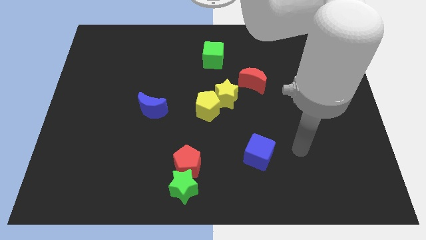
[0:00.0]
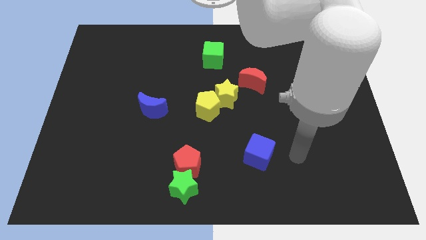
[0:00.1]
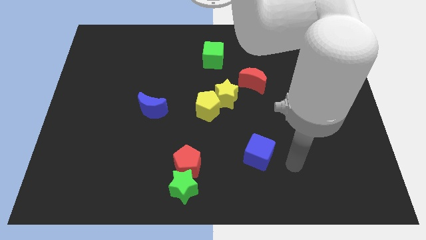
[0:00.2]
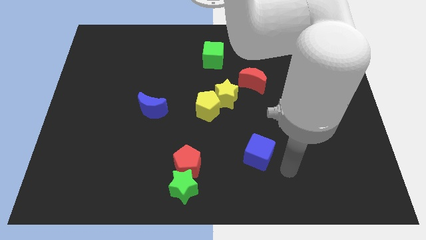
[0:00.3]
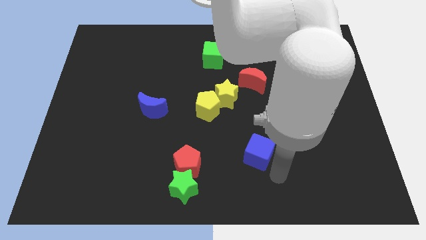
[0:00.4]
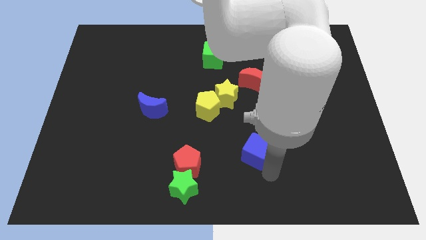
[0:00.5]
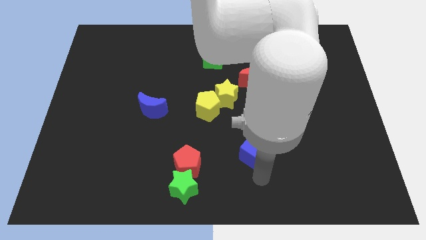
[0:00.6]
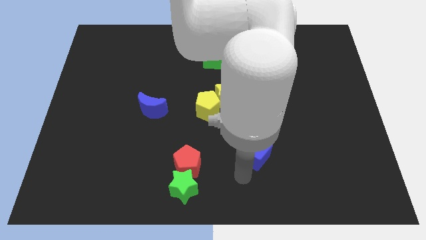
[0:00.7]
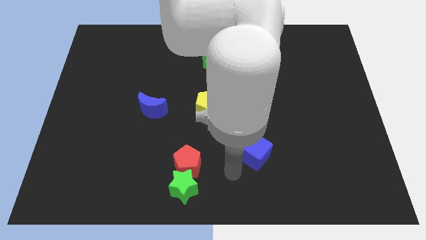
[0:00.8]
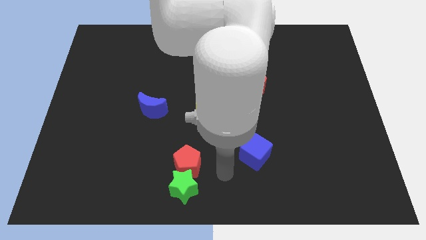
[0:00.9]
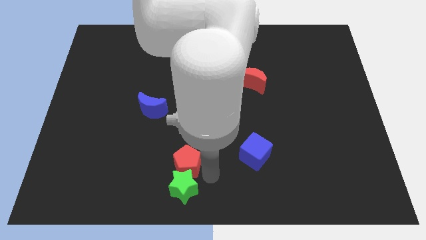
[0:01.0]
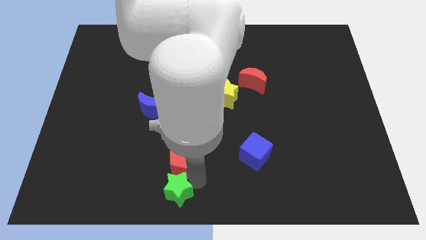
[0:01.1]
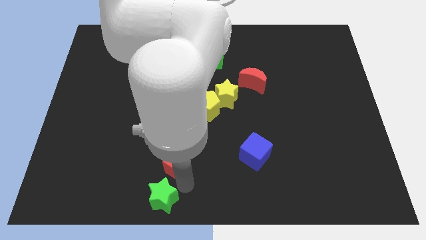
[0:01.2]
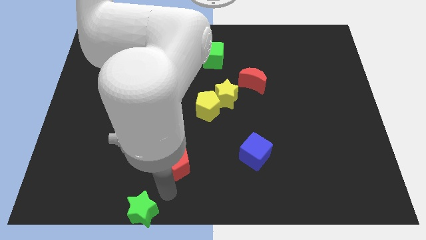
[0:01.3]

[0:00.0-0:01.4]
pull the red pentagon apart from the green star

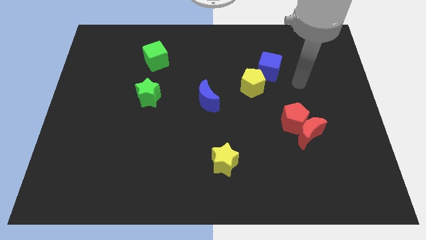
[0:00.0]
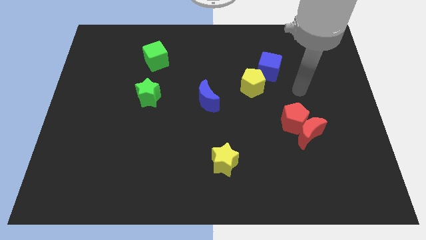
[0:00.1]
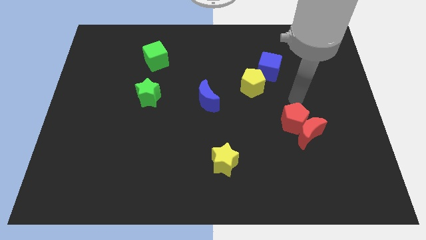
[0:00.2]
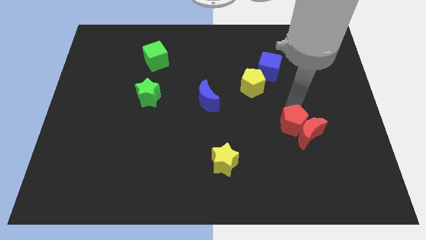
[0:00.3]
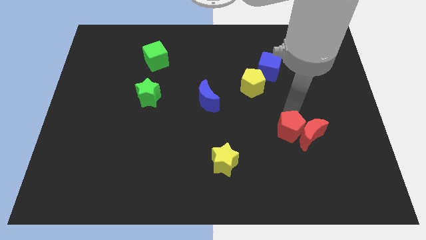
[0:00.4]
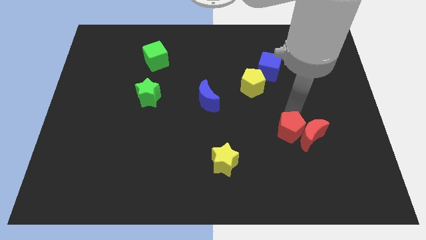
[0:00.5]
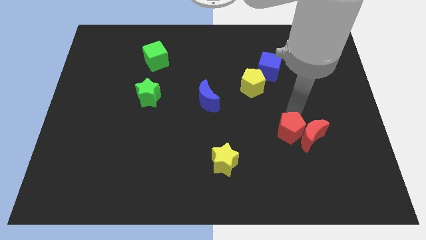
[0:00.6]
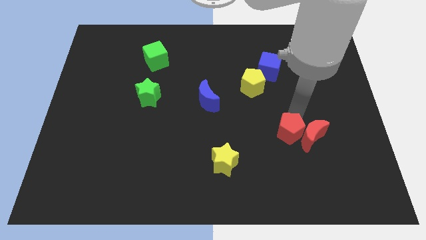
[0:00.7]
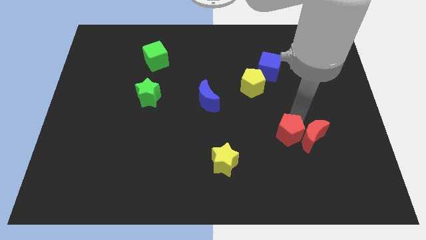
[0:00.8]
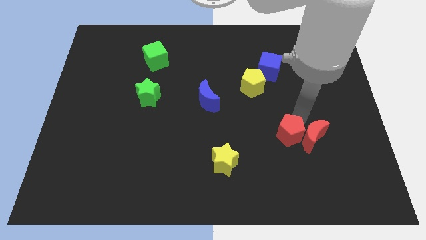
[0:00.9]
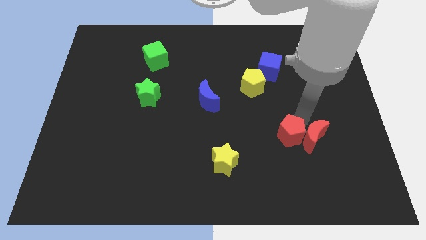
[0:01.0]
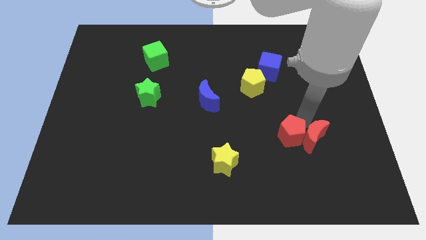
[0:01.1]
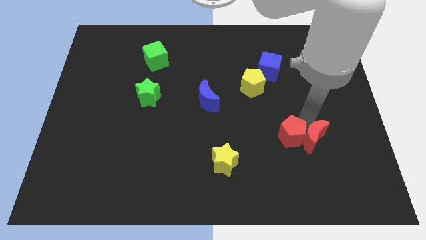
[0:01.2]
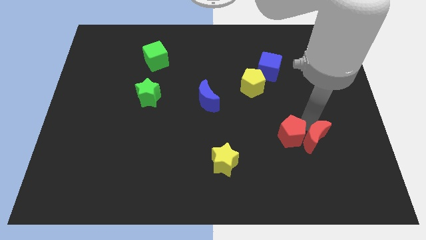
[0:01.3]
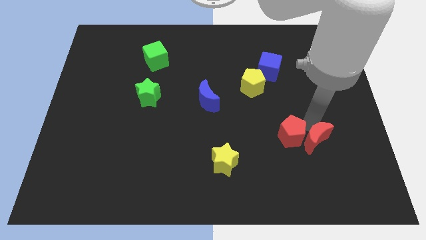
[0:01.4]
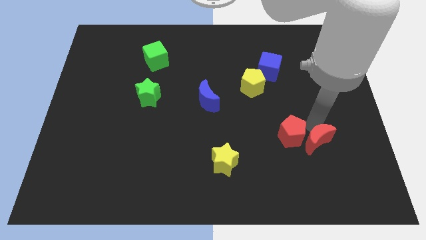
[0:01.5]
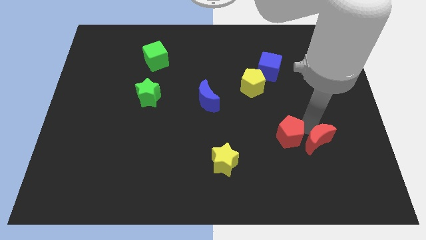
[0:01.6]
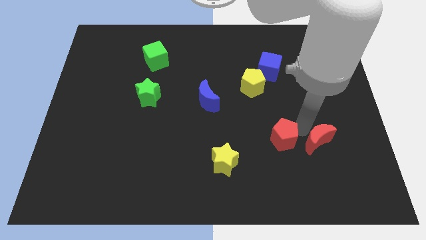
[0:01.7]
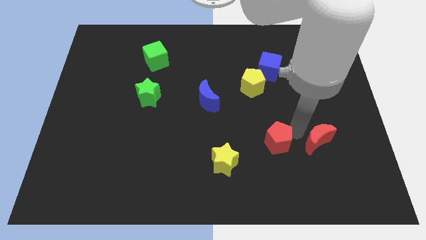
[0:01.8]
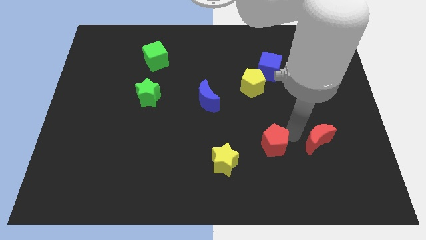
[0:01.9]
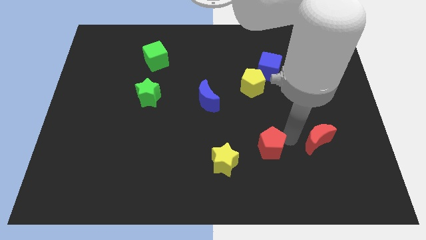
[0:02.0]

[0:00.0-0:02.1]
pull the red moon apart from the red pentagon

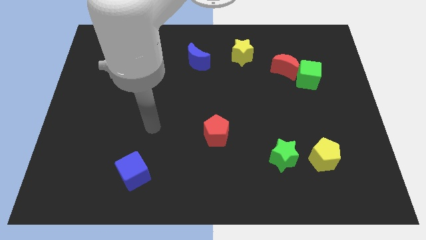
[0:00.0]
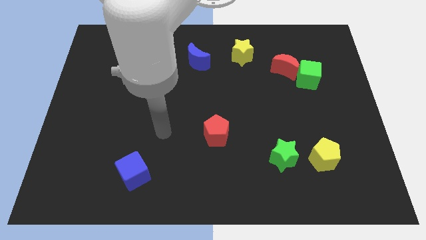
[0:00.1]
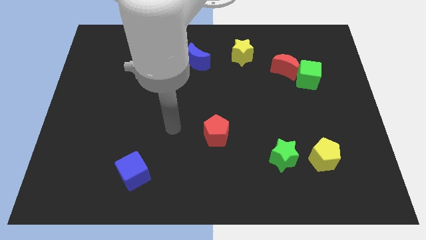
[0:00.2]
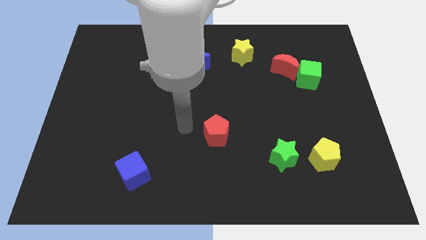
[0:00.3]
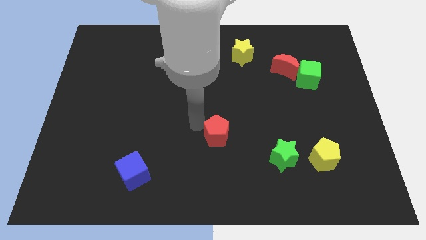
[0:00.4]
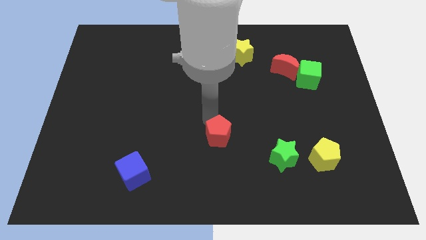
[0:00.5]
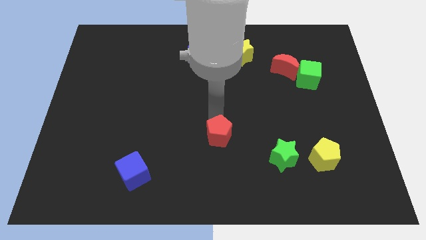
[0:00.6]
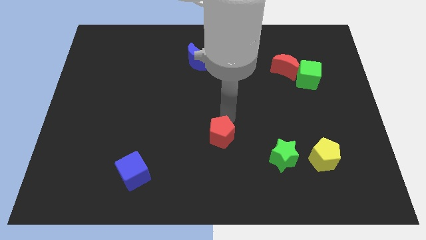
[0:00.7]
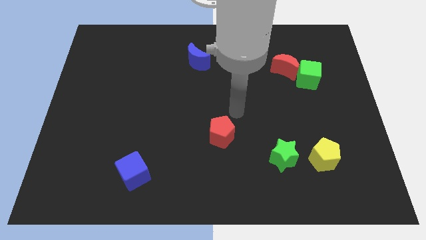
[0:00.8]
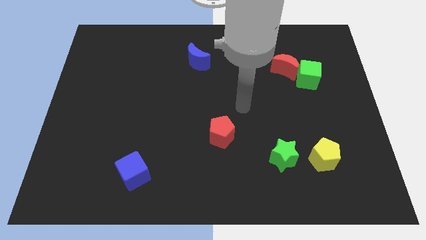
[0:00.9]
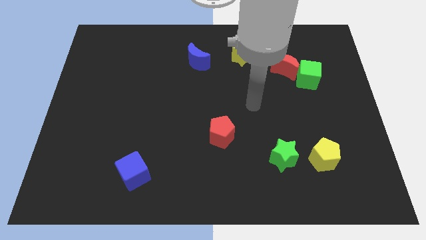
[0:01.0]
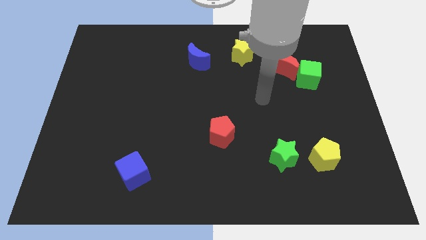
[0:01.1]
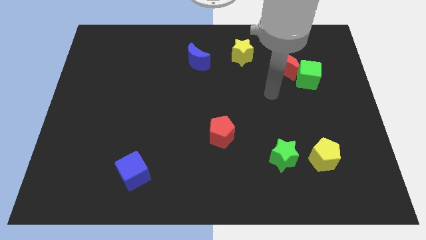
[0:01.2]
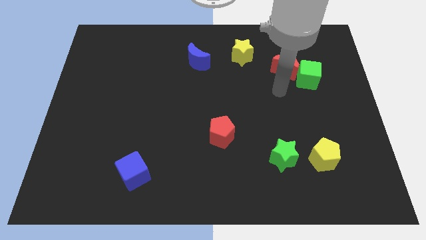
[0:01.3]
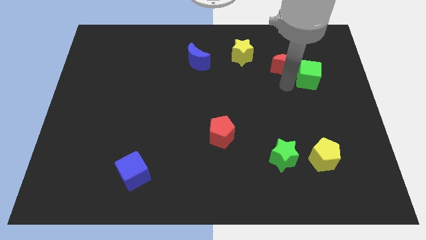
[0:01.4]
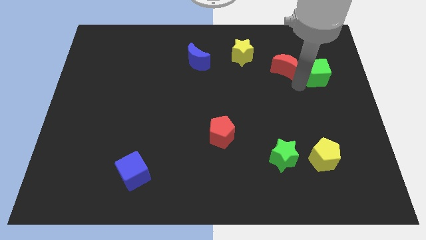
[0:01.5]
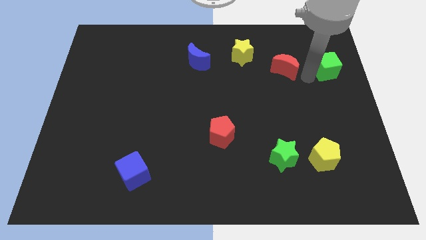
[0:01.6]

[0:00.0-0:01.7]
separate the red moon from the green cube

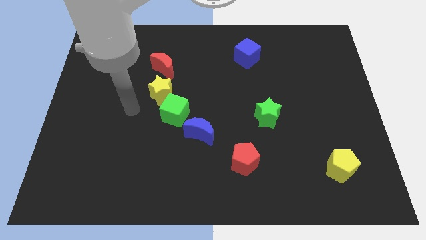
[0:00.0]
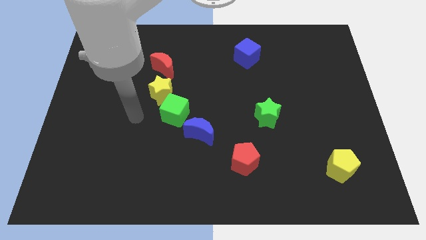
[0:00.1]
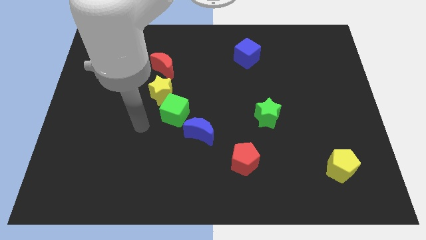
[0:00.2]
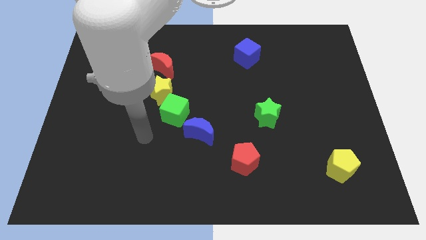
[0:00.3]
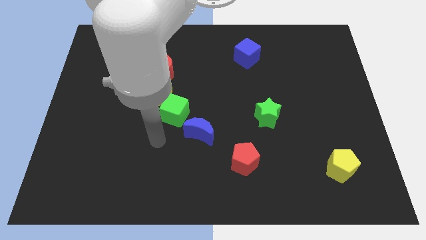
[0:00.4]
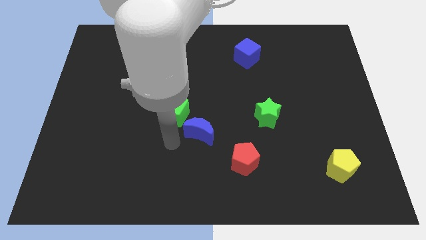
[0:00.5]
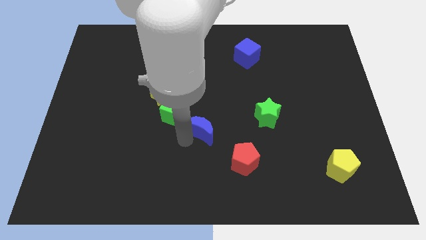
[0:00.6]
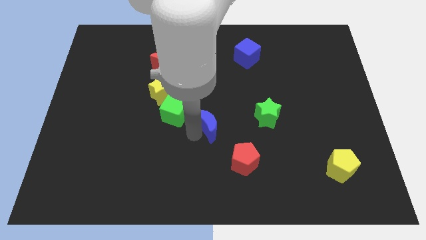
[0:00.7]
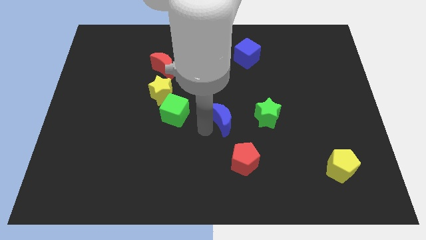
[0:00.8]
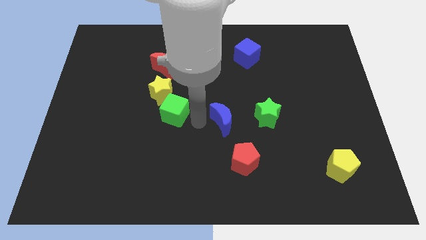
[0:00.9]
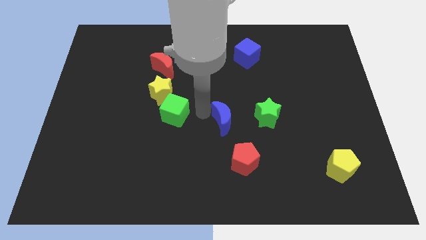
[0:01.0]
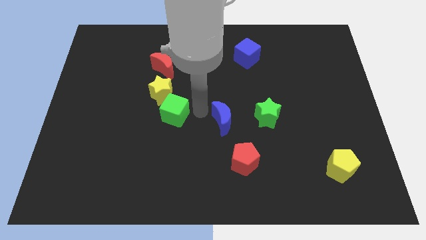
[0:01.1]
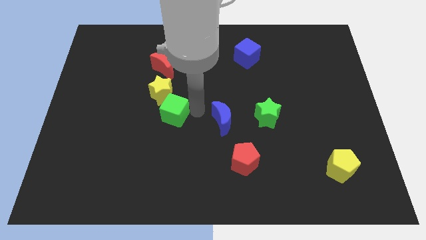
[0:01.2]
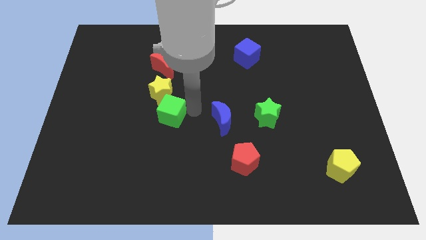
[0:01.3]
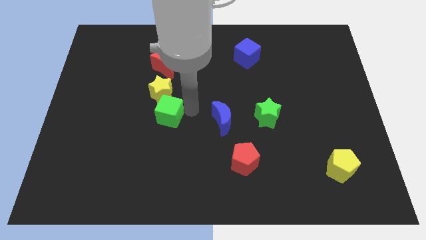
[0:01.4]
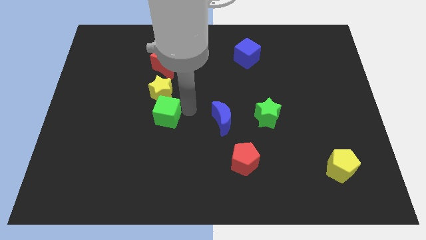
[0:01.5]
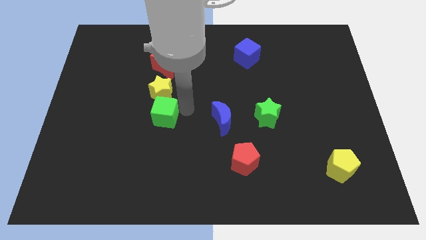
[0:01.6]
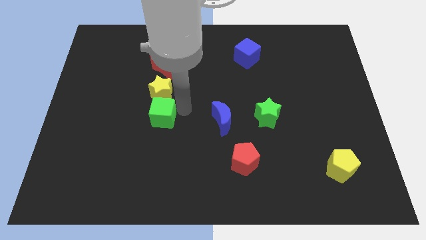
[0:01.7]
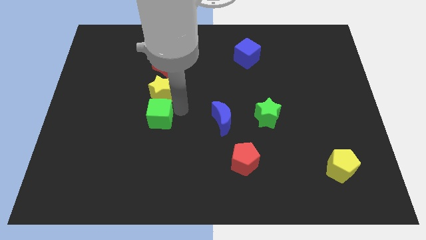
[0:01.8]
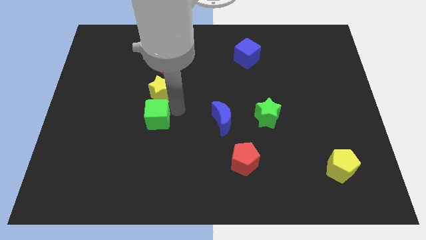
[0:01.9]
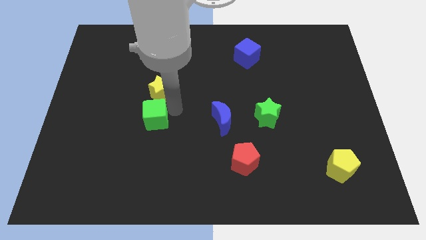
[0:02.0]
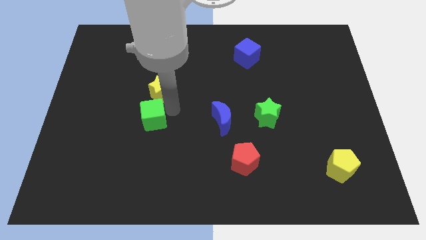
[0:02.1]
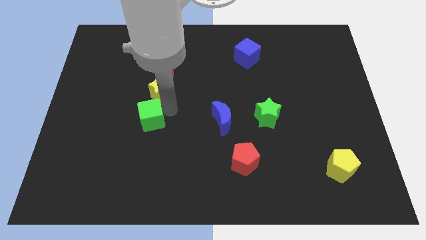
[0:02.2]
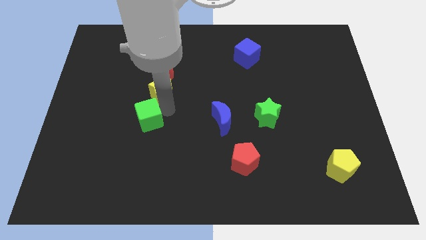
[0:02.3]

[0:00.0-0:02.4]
pull the green cube apart from the yellow star and blue moon

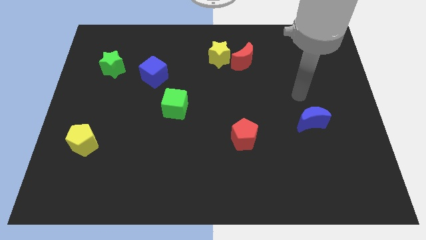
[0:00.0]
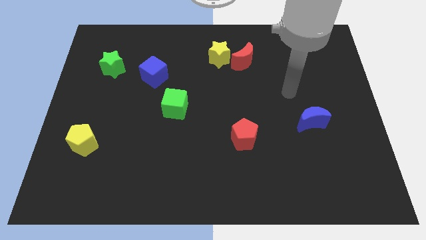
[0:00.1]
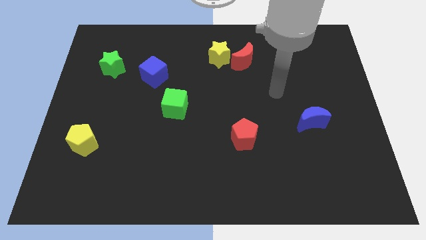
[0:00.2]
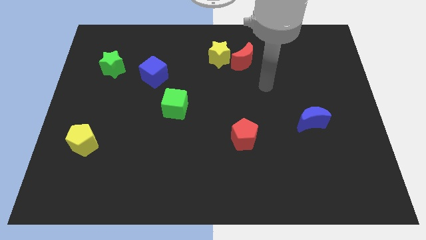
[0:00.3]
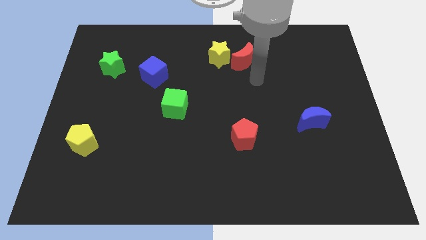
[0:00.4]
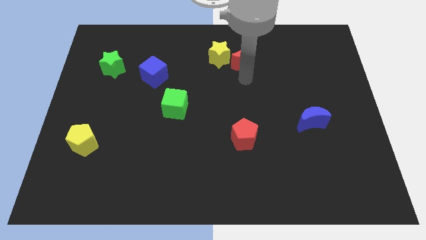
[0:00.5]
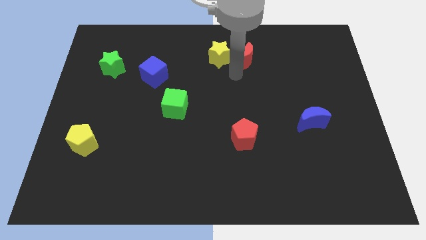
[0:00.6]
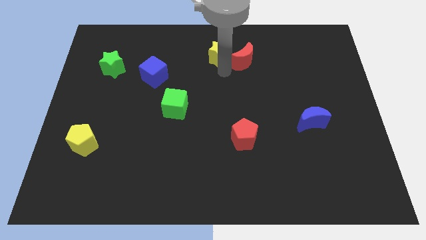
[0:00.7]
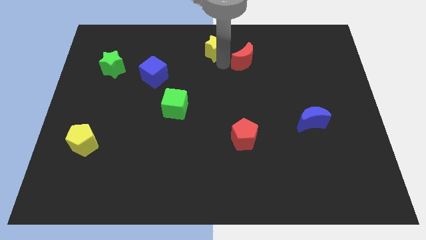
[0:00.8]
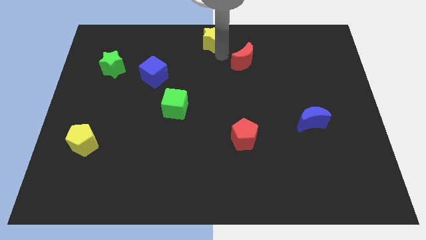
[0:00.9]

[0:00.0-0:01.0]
pull the red moon apart from the yellow star

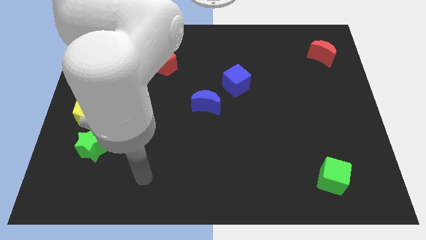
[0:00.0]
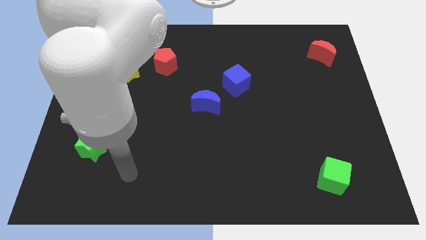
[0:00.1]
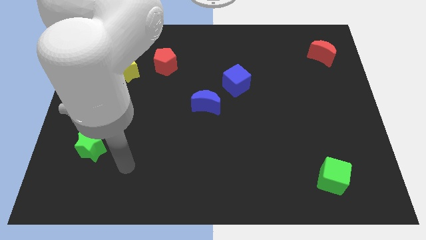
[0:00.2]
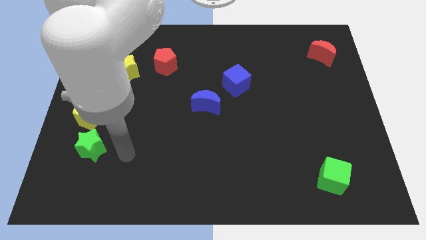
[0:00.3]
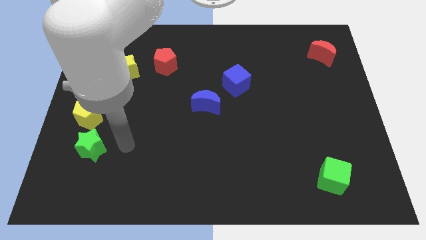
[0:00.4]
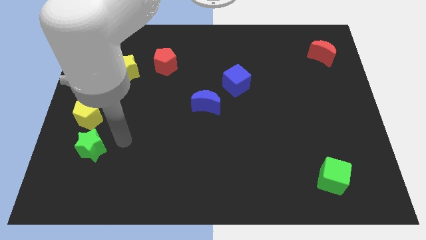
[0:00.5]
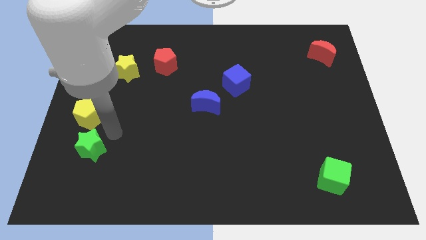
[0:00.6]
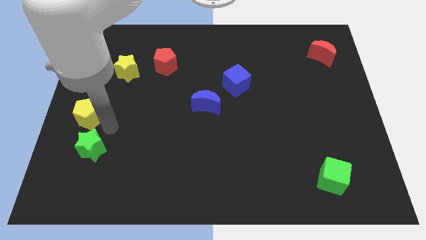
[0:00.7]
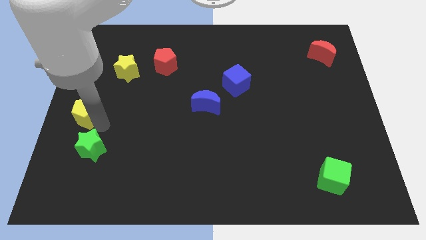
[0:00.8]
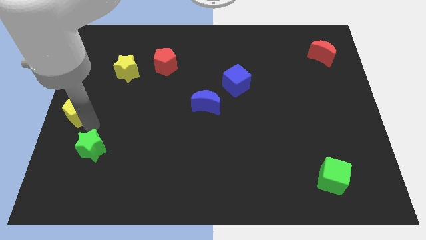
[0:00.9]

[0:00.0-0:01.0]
move the green star away from the yellow pentagon
